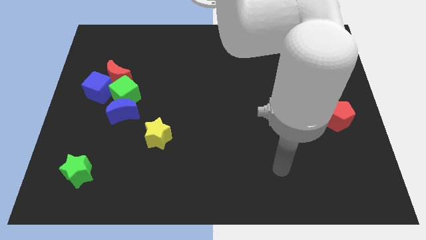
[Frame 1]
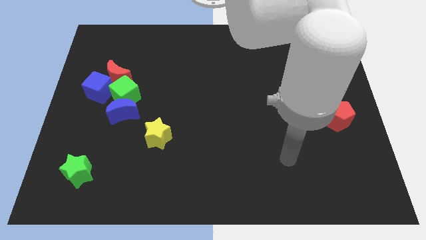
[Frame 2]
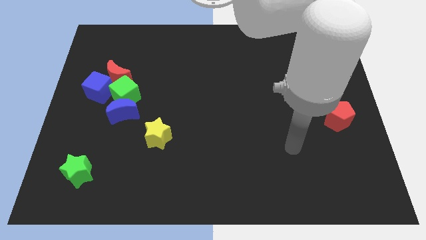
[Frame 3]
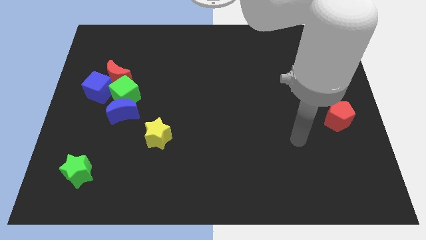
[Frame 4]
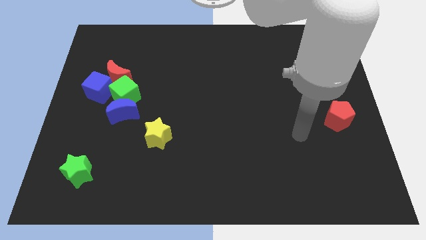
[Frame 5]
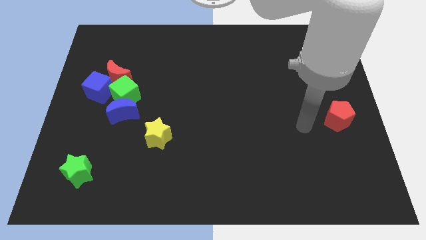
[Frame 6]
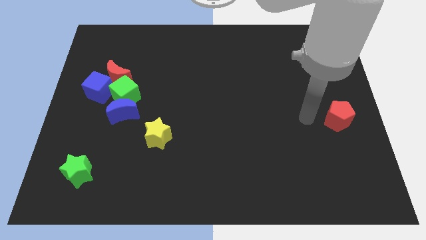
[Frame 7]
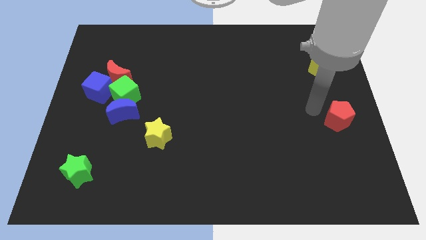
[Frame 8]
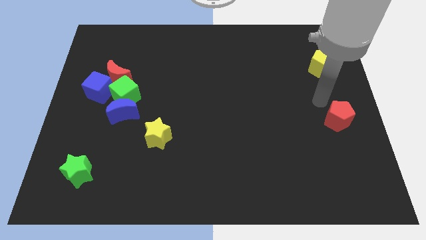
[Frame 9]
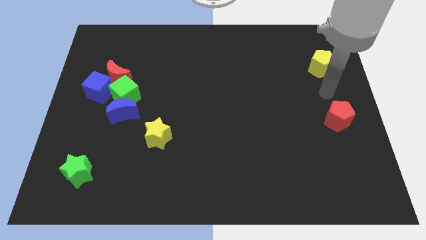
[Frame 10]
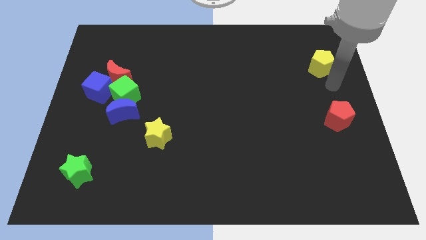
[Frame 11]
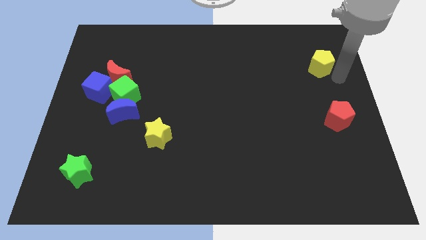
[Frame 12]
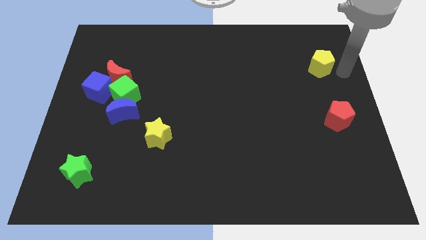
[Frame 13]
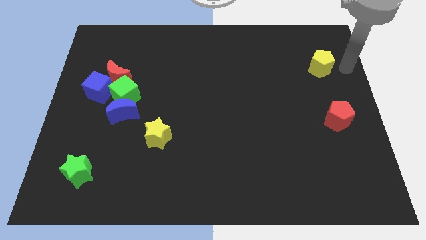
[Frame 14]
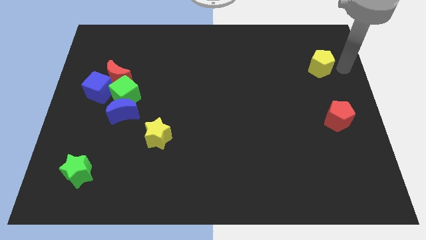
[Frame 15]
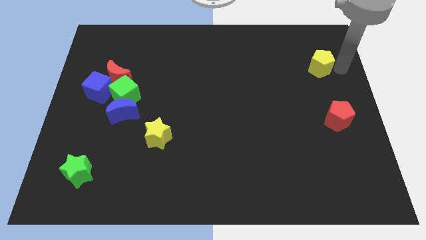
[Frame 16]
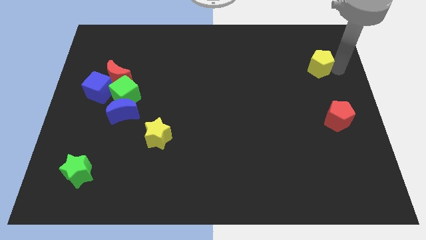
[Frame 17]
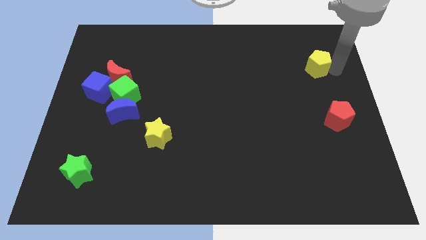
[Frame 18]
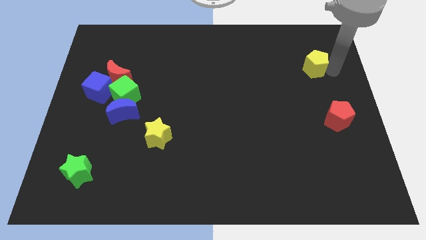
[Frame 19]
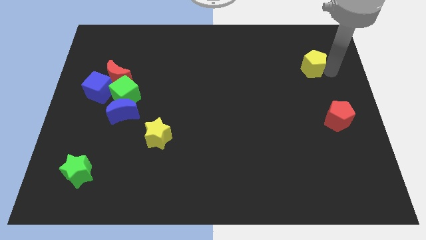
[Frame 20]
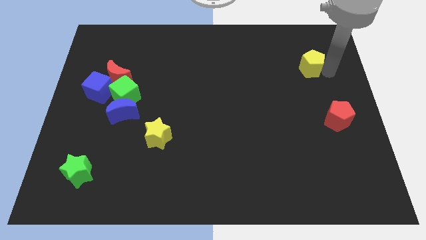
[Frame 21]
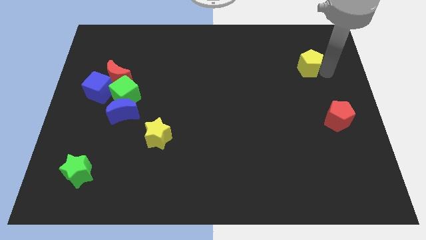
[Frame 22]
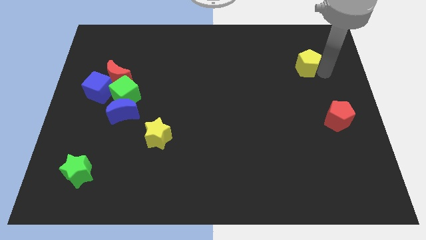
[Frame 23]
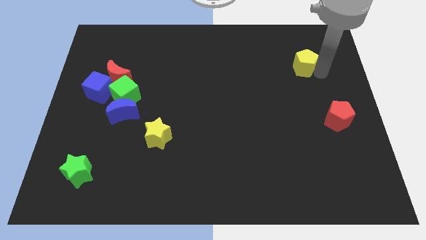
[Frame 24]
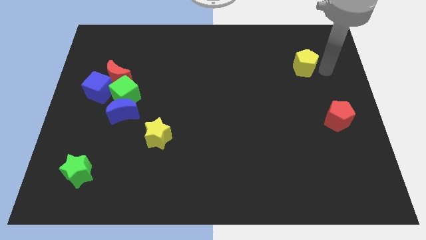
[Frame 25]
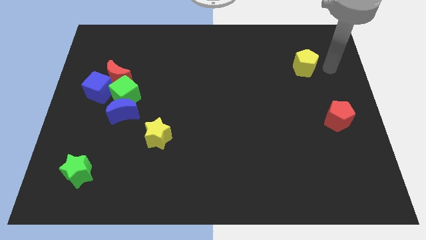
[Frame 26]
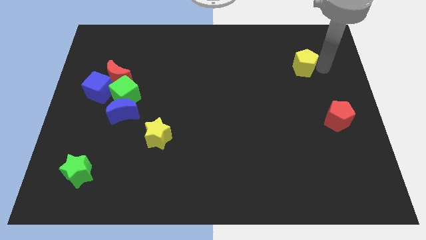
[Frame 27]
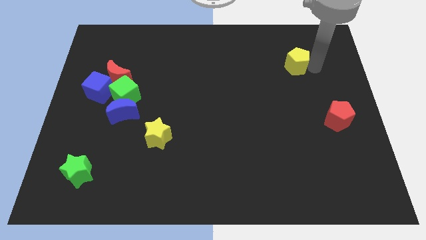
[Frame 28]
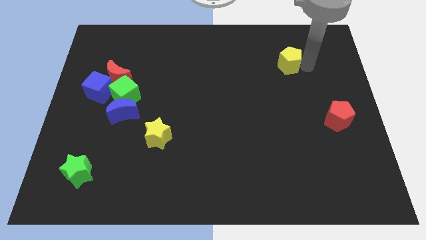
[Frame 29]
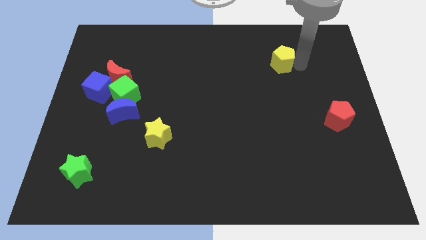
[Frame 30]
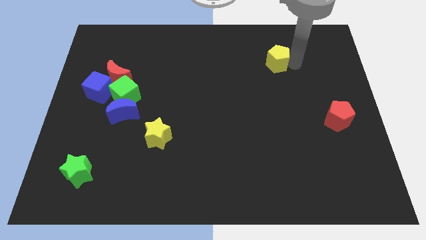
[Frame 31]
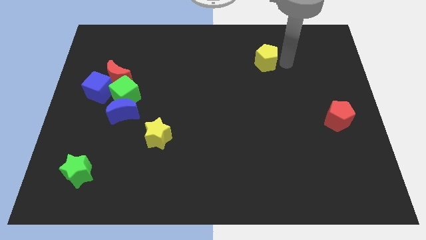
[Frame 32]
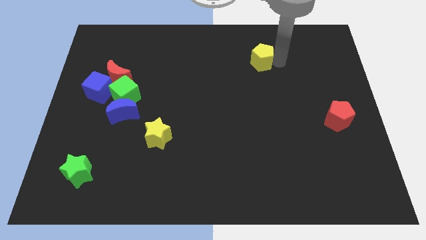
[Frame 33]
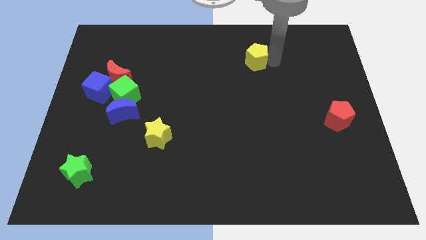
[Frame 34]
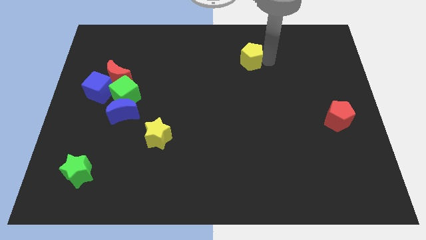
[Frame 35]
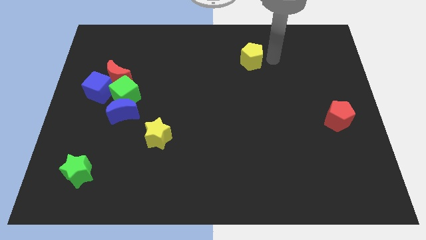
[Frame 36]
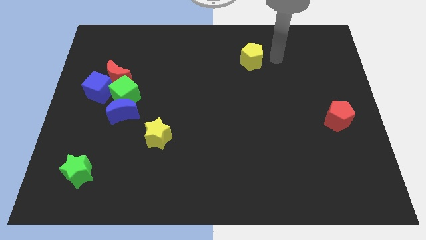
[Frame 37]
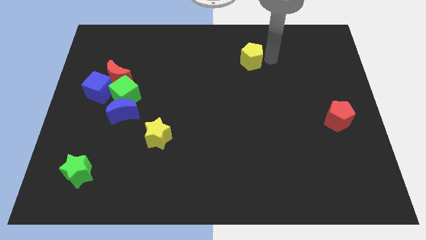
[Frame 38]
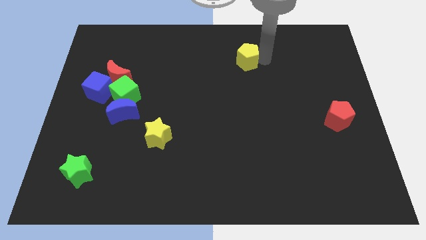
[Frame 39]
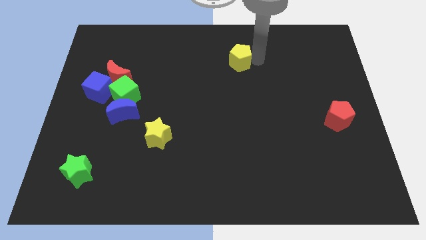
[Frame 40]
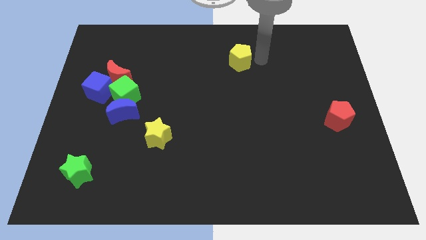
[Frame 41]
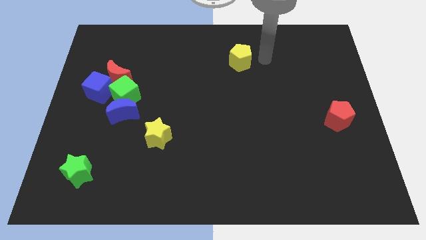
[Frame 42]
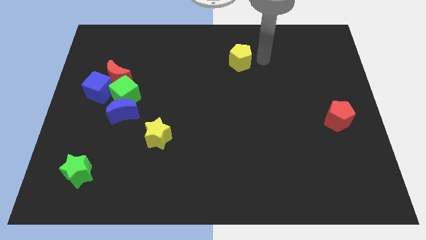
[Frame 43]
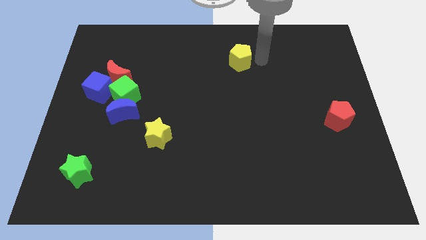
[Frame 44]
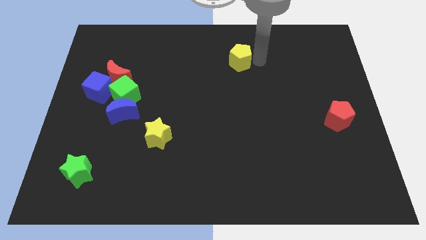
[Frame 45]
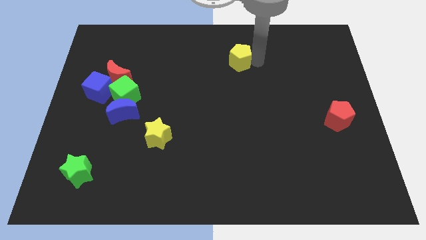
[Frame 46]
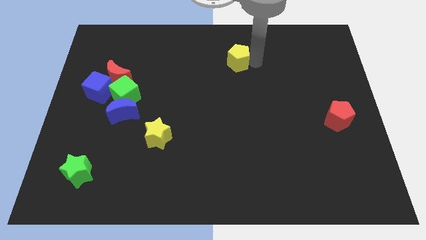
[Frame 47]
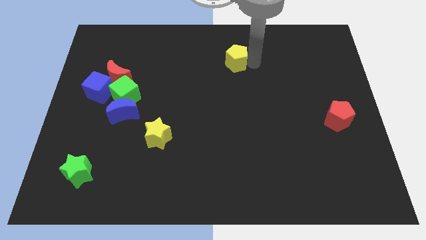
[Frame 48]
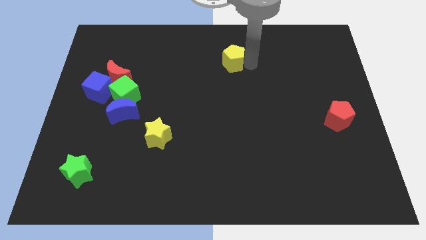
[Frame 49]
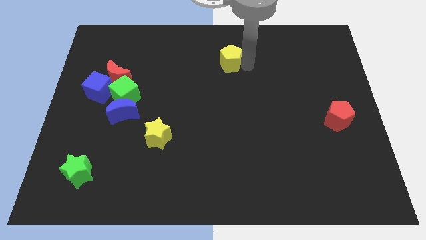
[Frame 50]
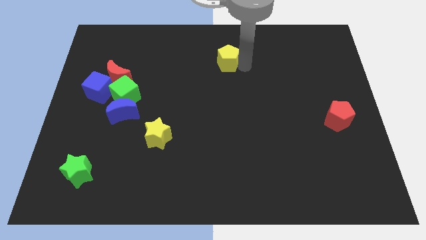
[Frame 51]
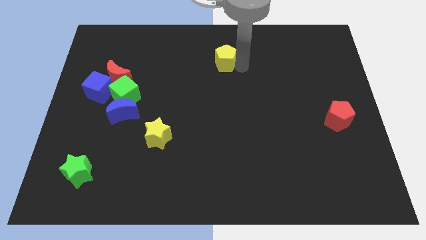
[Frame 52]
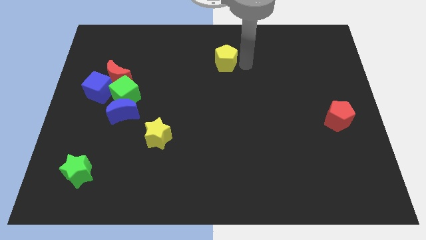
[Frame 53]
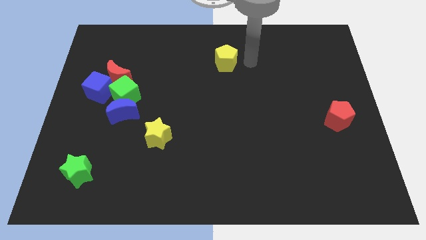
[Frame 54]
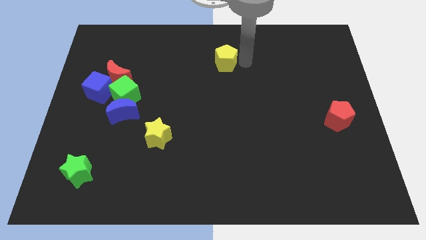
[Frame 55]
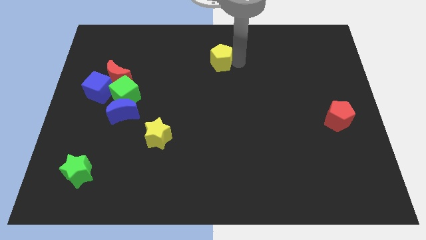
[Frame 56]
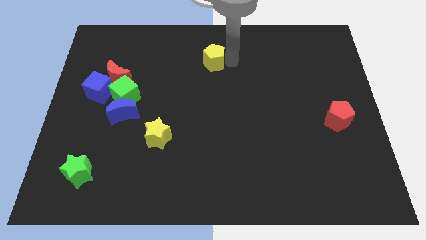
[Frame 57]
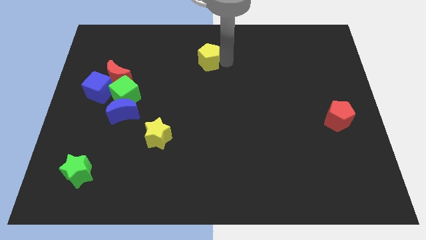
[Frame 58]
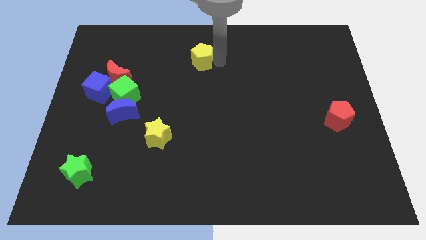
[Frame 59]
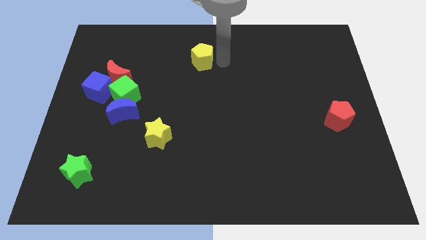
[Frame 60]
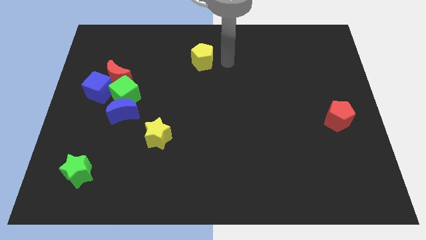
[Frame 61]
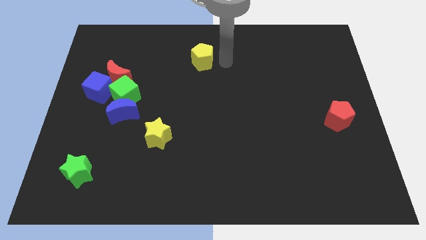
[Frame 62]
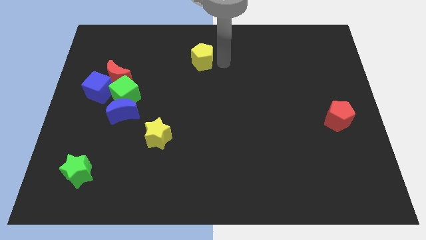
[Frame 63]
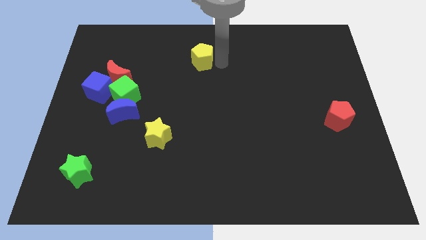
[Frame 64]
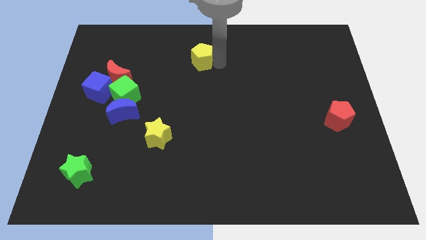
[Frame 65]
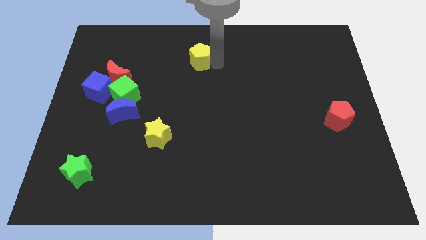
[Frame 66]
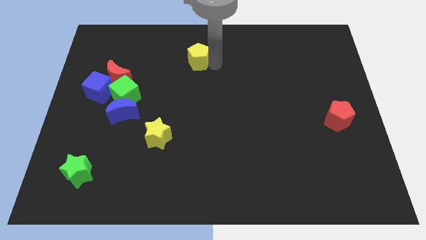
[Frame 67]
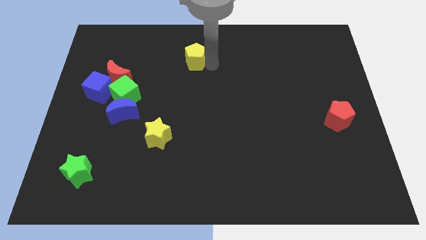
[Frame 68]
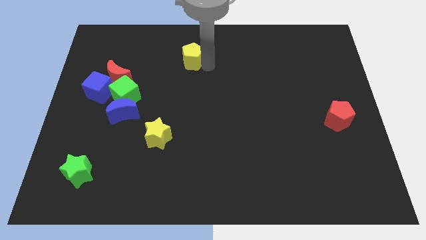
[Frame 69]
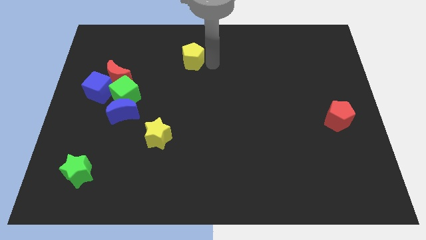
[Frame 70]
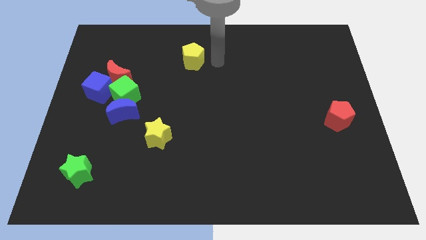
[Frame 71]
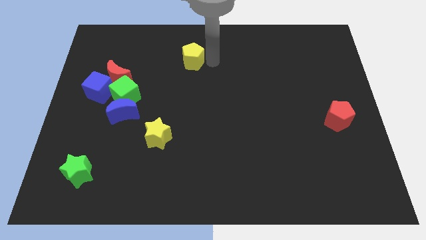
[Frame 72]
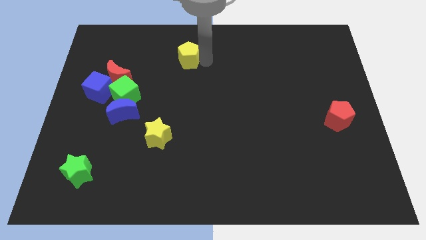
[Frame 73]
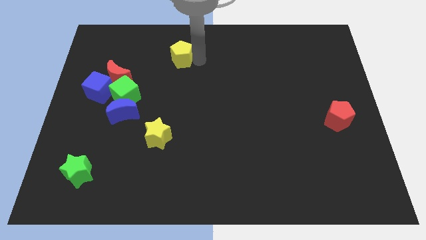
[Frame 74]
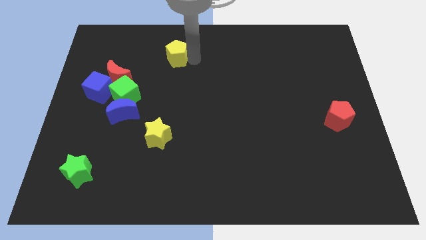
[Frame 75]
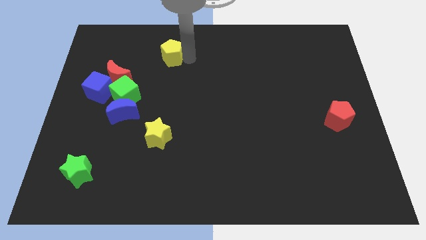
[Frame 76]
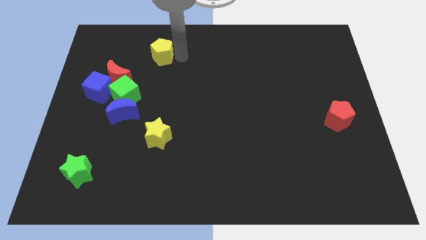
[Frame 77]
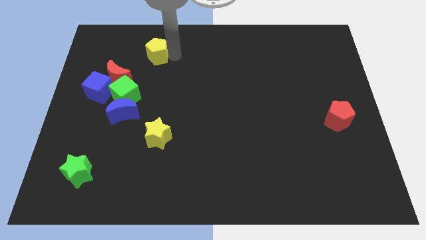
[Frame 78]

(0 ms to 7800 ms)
push the yellow pentagon to the top right of the red moon
